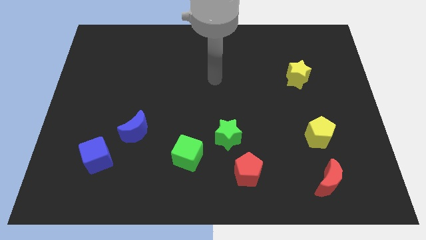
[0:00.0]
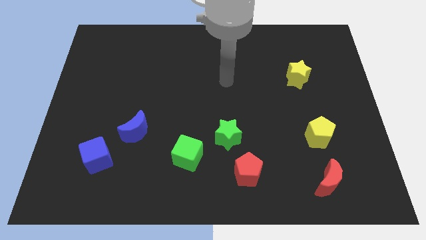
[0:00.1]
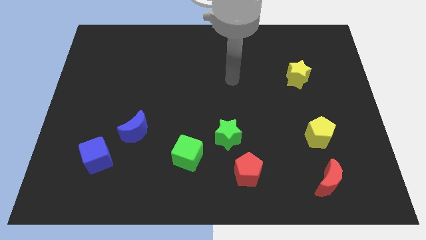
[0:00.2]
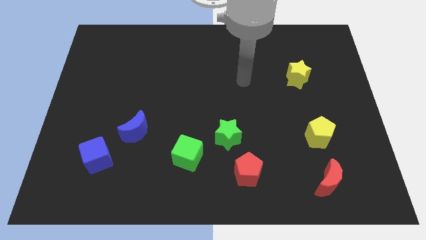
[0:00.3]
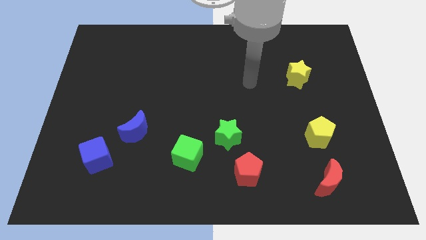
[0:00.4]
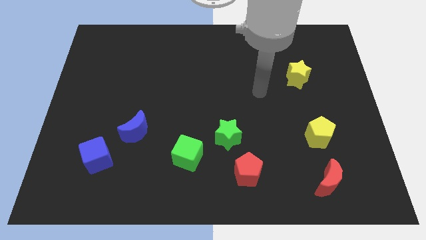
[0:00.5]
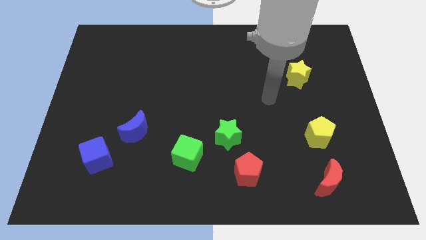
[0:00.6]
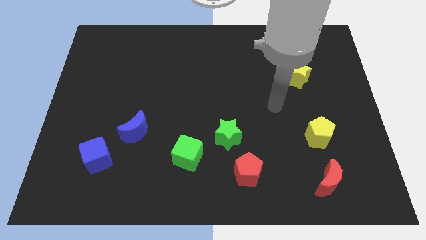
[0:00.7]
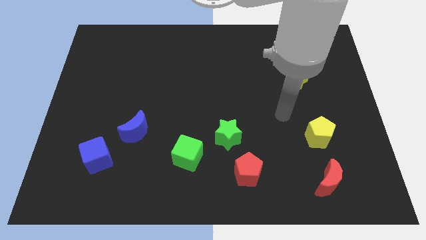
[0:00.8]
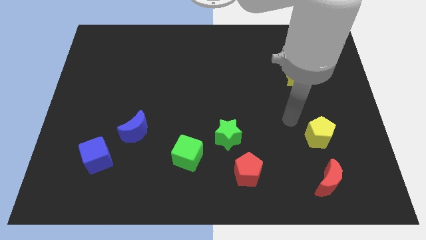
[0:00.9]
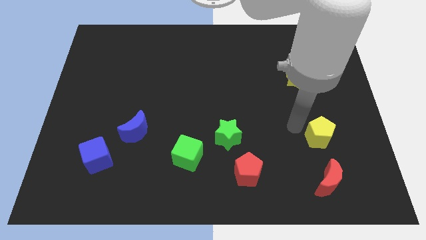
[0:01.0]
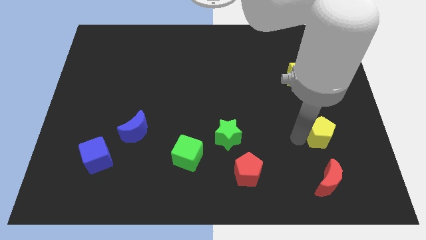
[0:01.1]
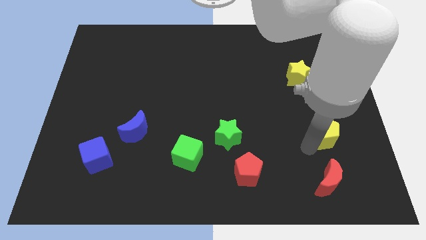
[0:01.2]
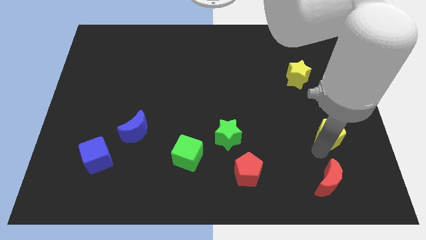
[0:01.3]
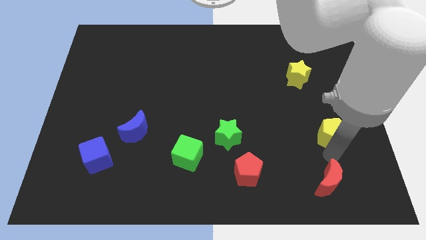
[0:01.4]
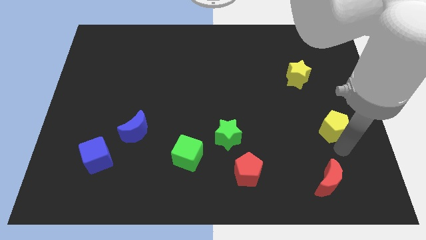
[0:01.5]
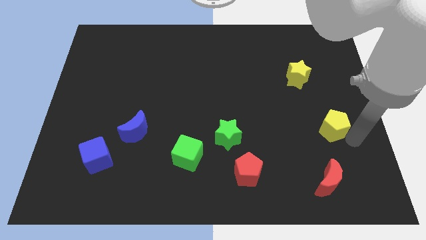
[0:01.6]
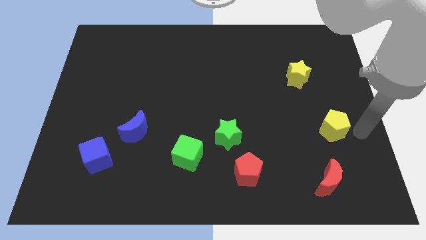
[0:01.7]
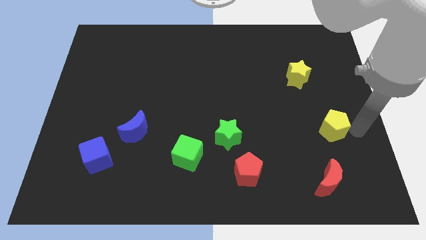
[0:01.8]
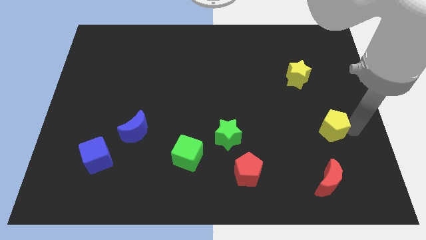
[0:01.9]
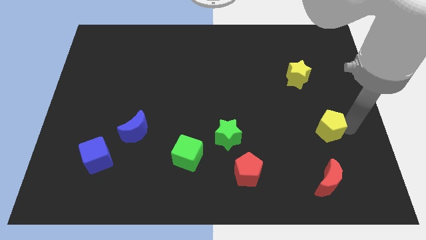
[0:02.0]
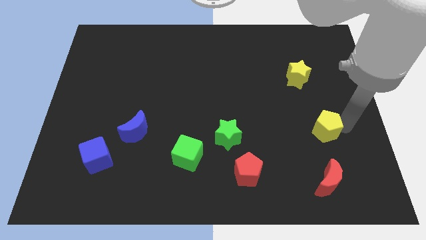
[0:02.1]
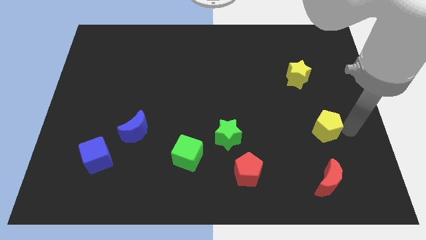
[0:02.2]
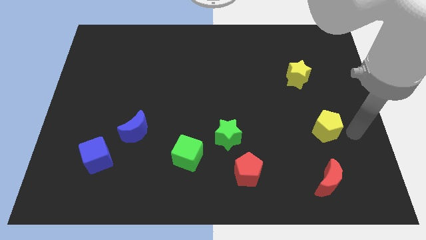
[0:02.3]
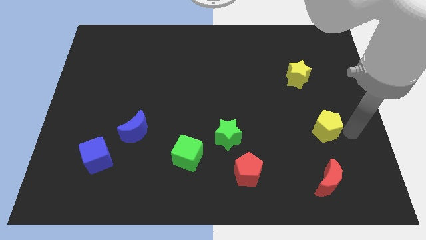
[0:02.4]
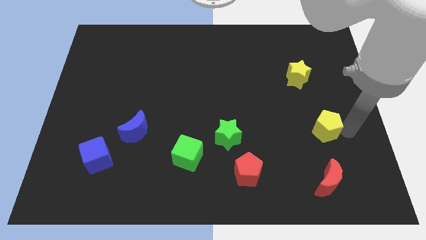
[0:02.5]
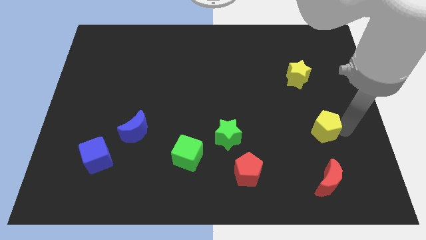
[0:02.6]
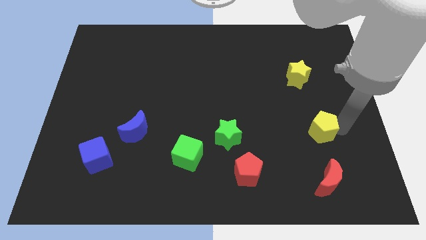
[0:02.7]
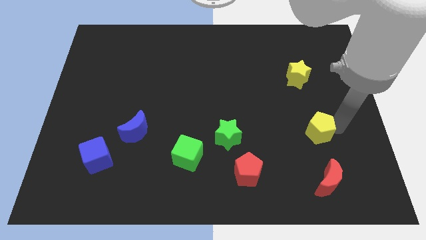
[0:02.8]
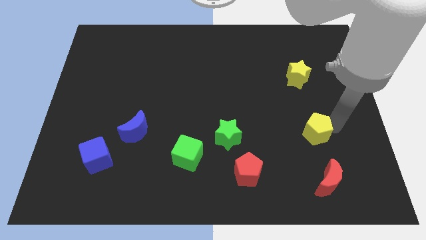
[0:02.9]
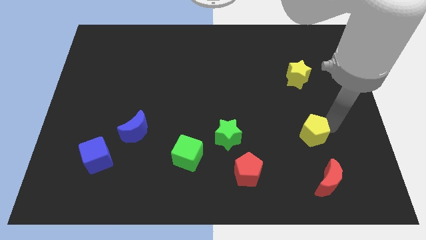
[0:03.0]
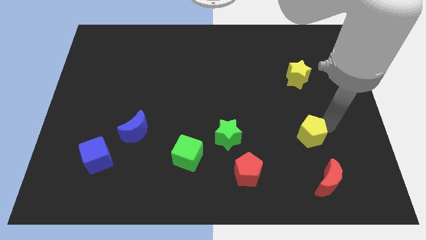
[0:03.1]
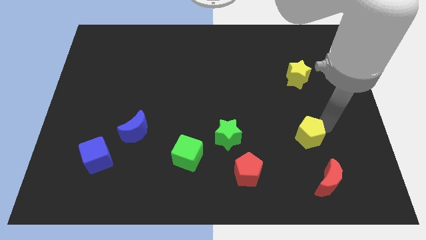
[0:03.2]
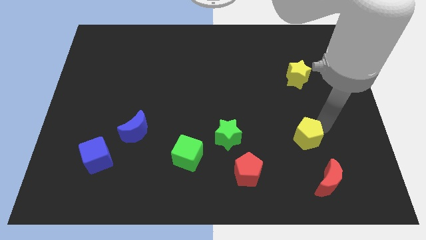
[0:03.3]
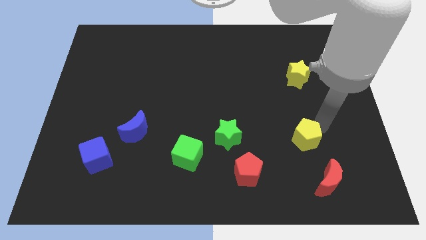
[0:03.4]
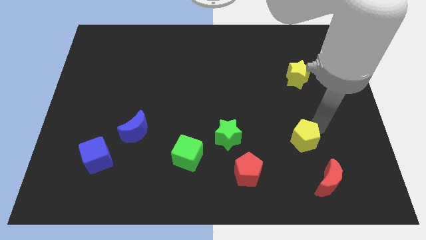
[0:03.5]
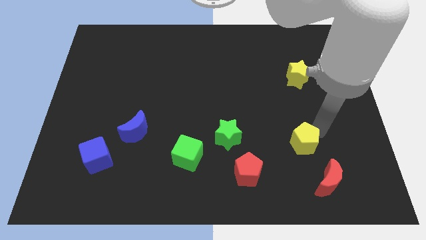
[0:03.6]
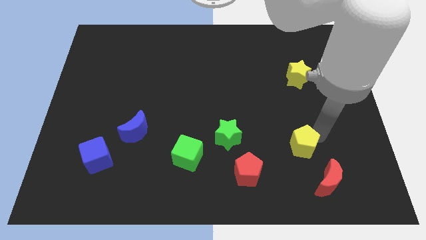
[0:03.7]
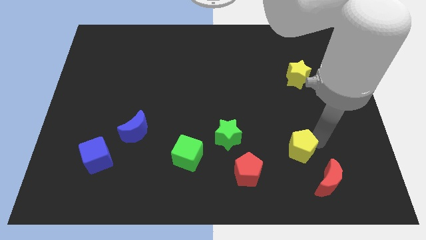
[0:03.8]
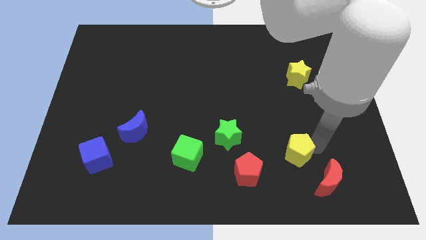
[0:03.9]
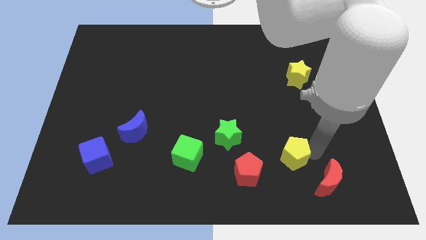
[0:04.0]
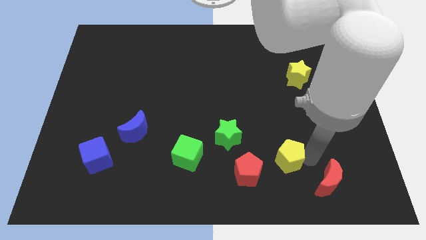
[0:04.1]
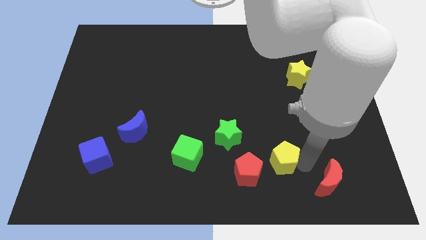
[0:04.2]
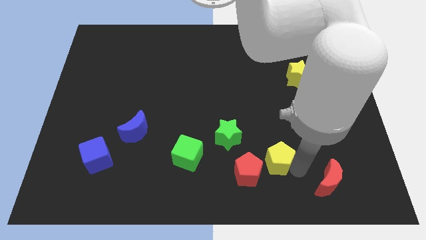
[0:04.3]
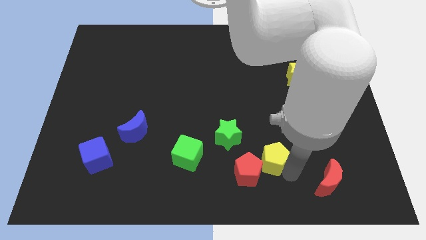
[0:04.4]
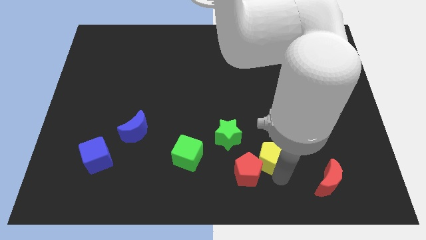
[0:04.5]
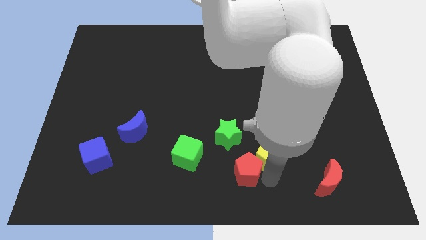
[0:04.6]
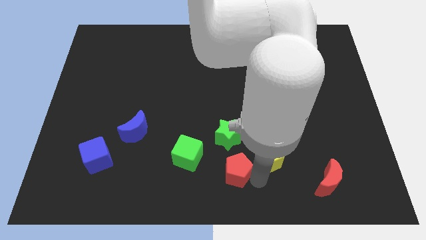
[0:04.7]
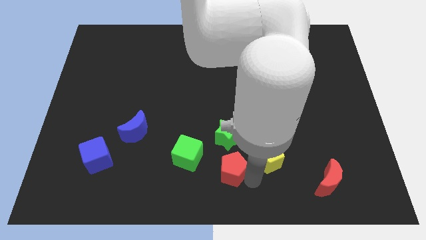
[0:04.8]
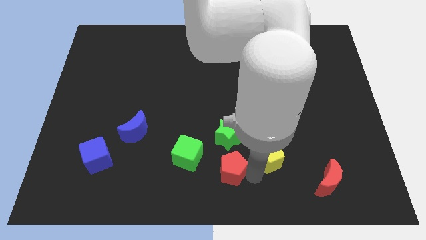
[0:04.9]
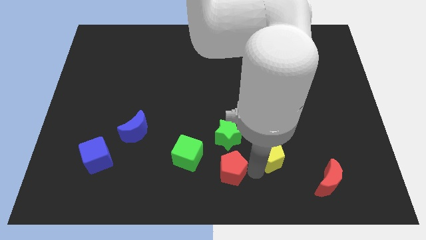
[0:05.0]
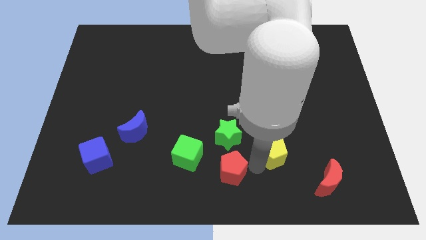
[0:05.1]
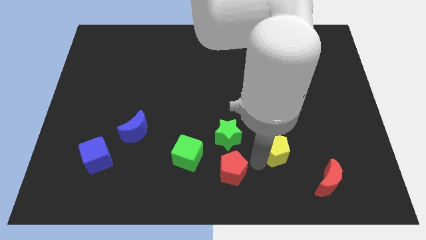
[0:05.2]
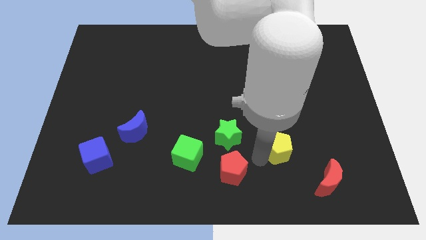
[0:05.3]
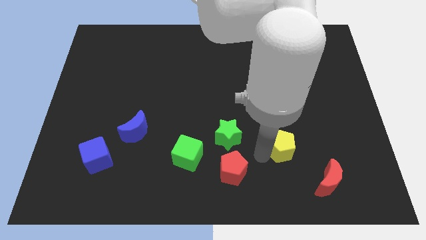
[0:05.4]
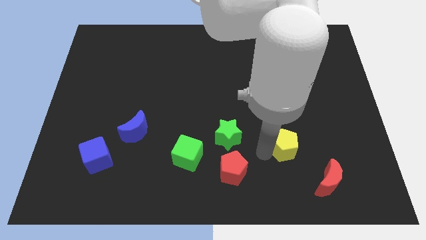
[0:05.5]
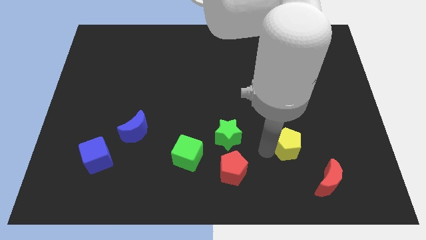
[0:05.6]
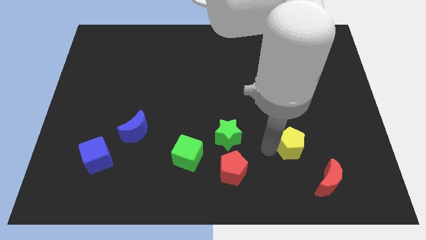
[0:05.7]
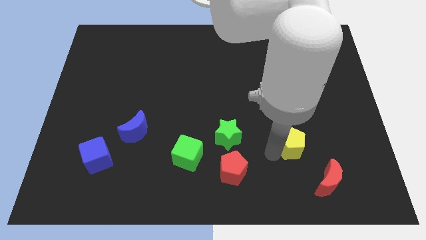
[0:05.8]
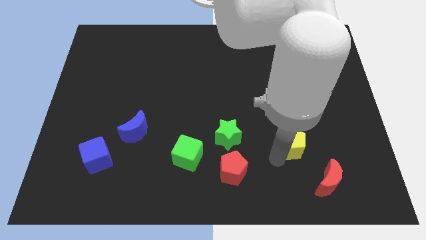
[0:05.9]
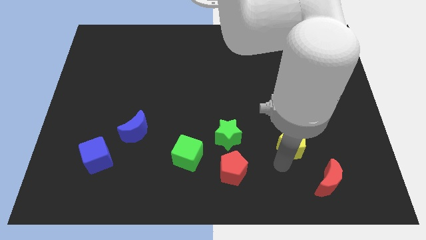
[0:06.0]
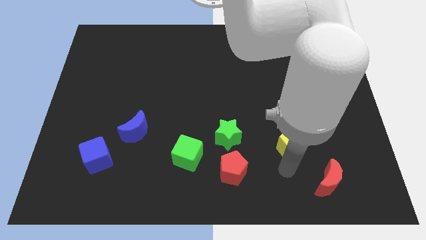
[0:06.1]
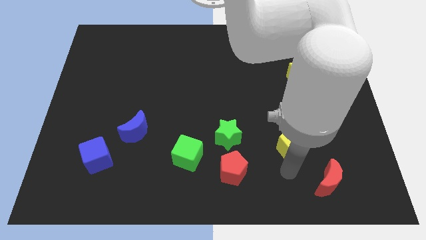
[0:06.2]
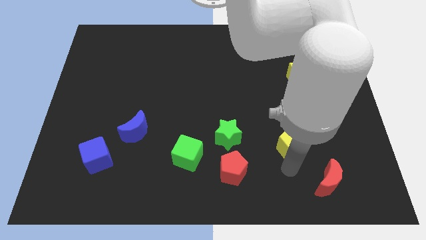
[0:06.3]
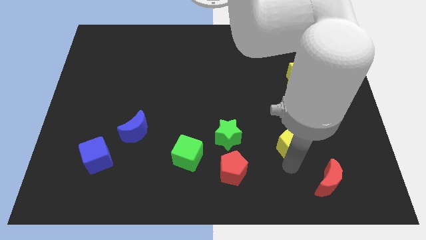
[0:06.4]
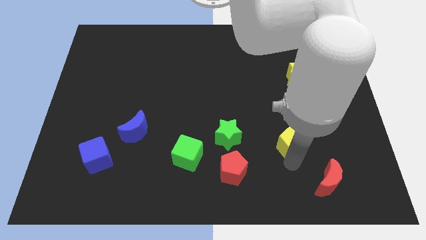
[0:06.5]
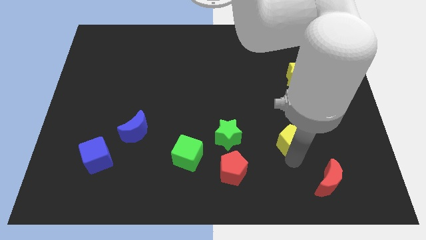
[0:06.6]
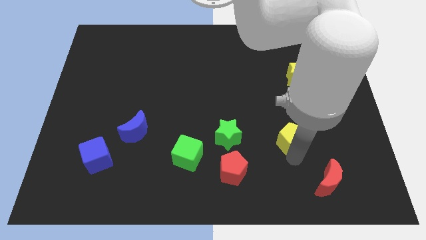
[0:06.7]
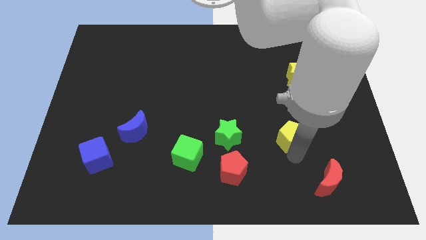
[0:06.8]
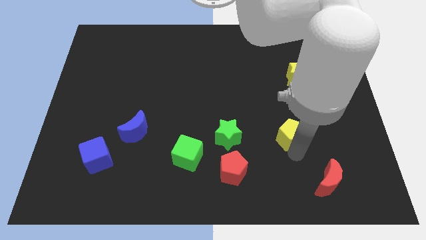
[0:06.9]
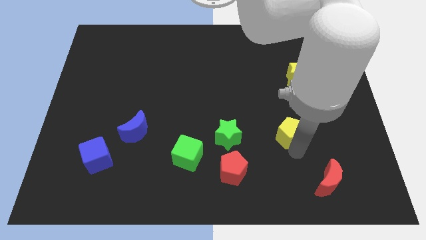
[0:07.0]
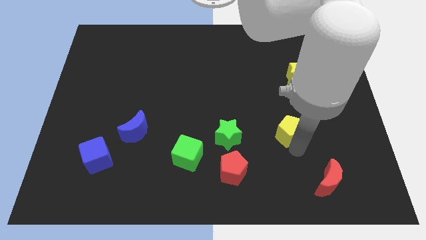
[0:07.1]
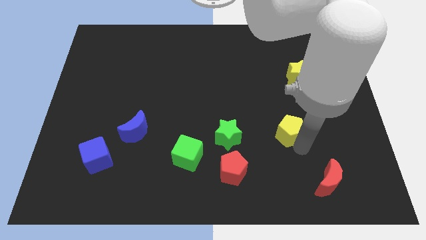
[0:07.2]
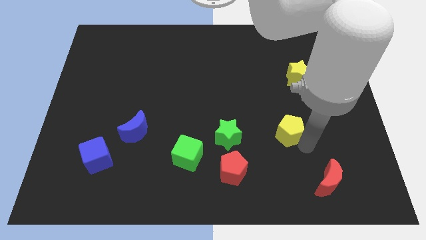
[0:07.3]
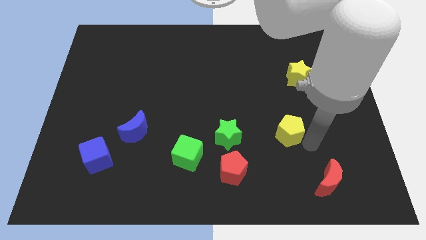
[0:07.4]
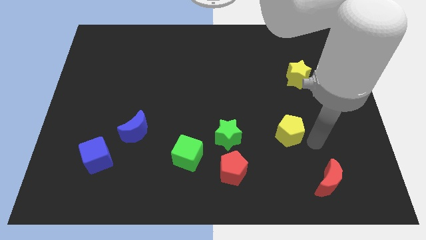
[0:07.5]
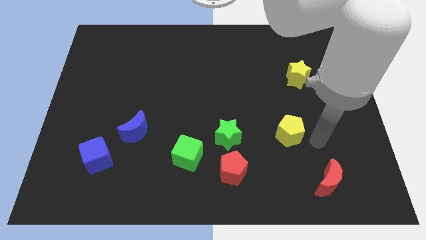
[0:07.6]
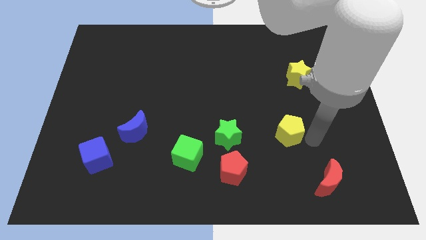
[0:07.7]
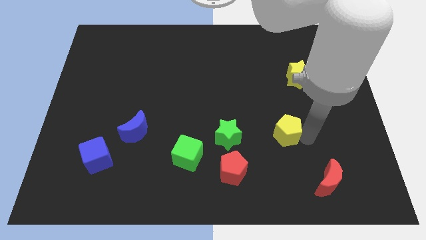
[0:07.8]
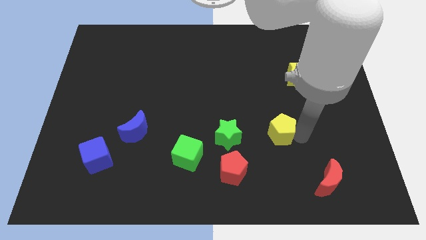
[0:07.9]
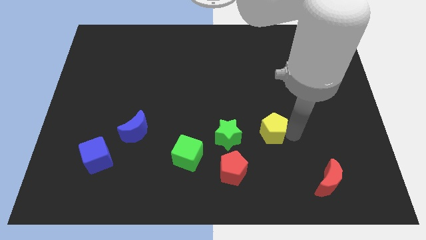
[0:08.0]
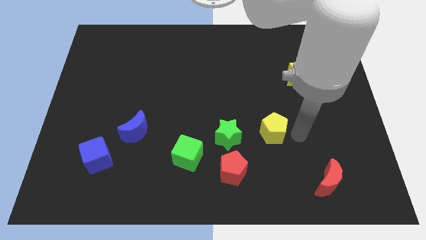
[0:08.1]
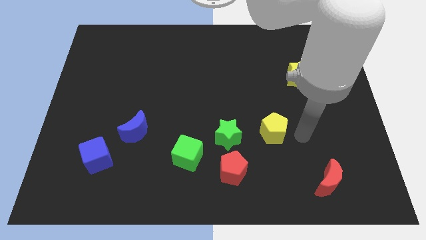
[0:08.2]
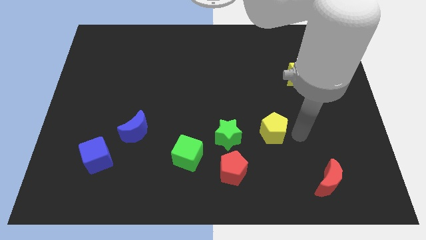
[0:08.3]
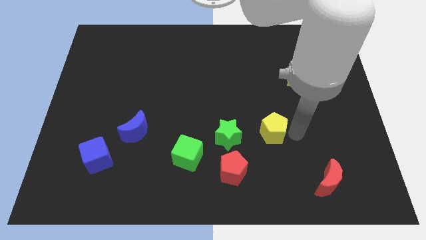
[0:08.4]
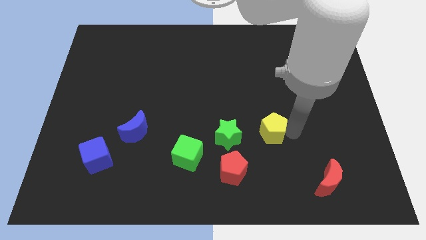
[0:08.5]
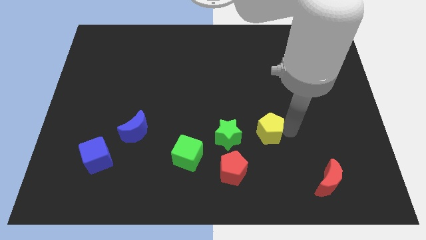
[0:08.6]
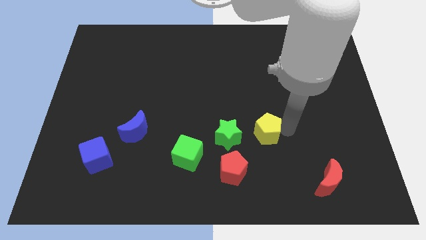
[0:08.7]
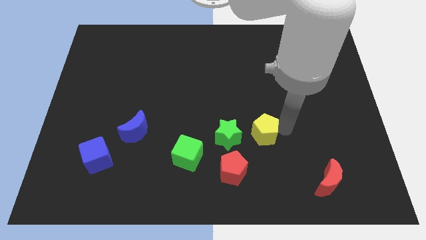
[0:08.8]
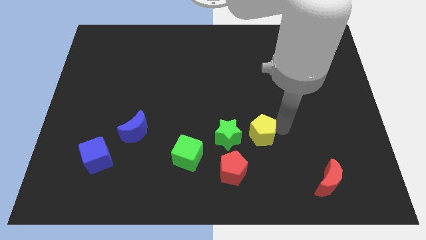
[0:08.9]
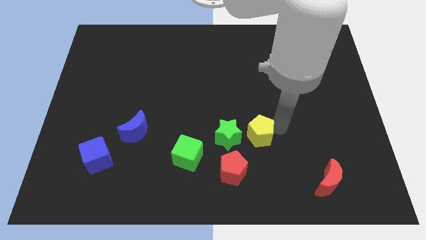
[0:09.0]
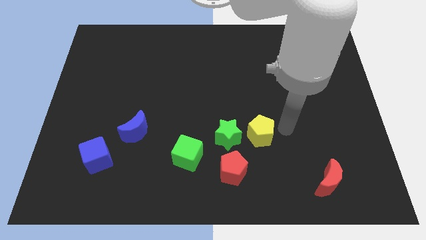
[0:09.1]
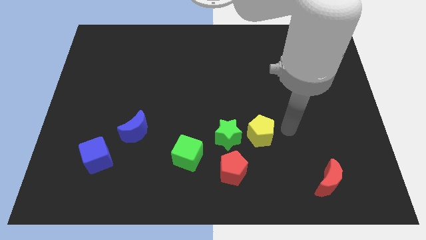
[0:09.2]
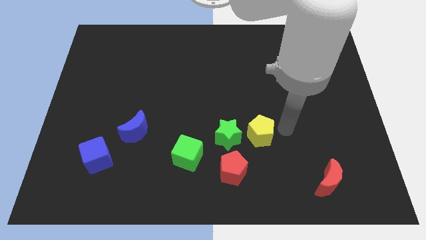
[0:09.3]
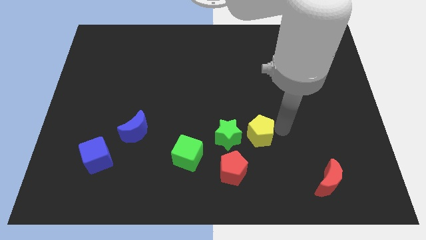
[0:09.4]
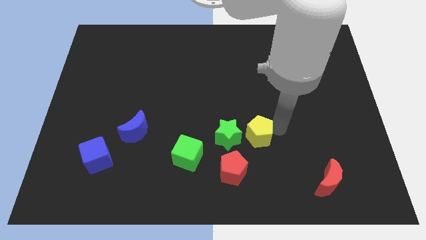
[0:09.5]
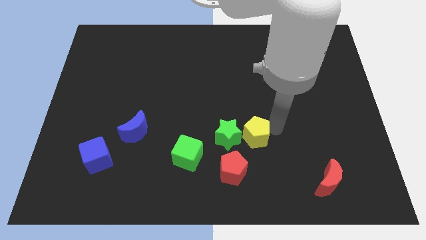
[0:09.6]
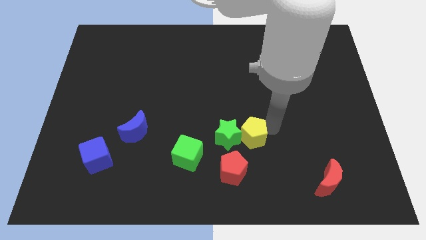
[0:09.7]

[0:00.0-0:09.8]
put the yellow pentagon towards the green star
